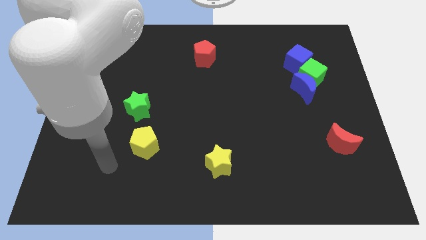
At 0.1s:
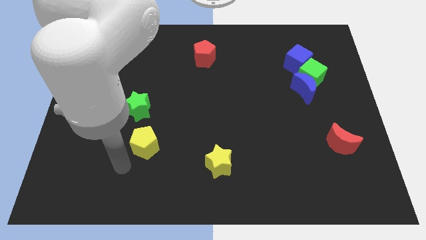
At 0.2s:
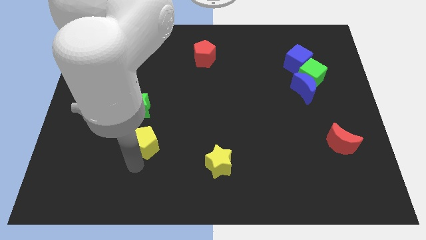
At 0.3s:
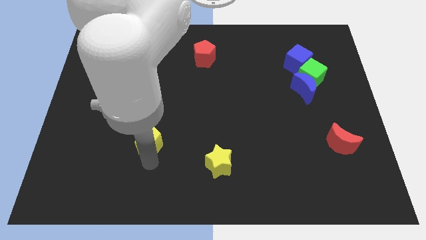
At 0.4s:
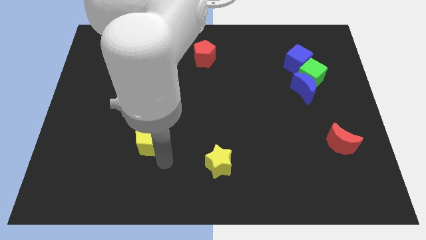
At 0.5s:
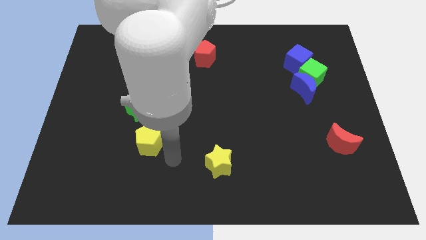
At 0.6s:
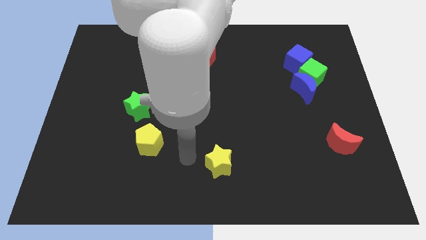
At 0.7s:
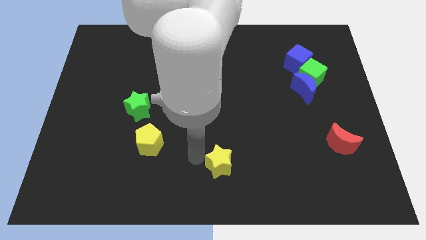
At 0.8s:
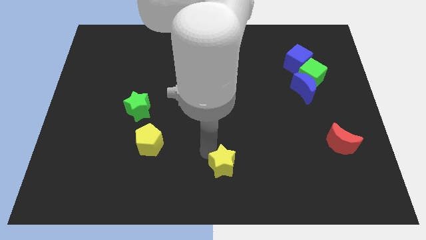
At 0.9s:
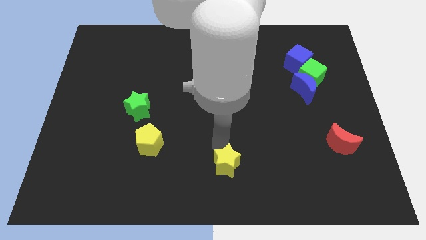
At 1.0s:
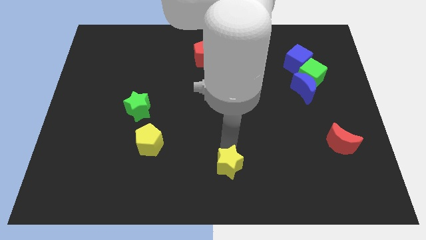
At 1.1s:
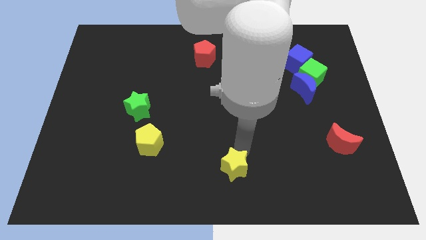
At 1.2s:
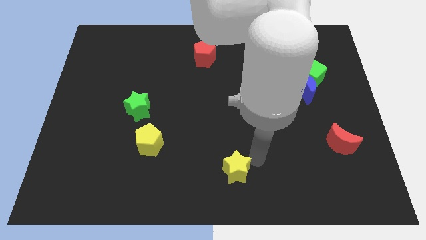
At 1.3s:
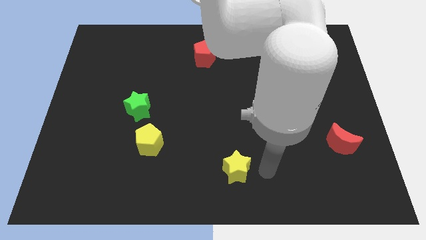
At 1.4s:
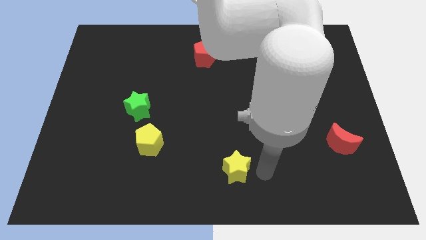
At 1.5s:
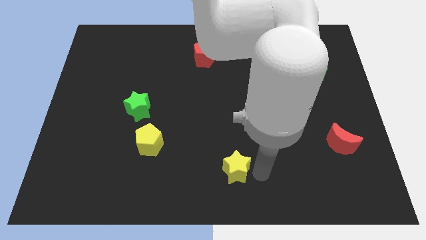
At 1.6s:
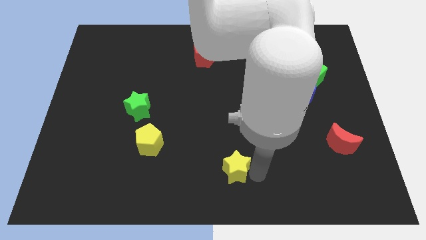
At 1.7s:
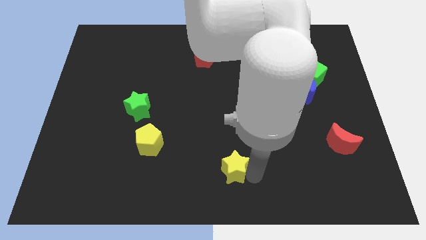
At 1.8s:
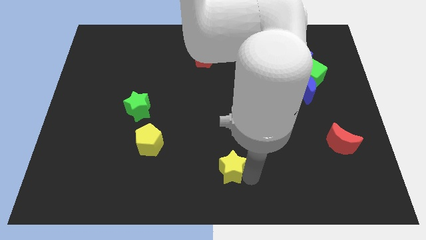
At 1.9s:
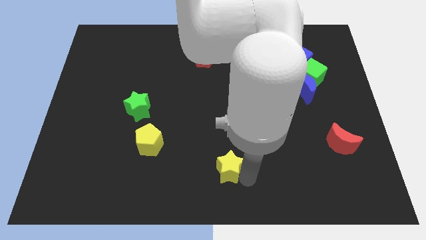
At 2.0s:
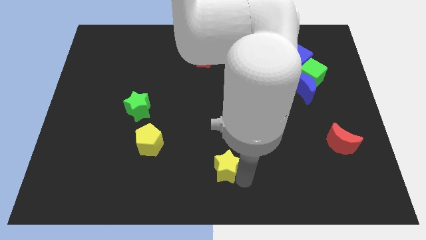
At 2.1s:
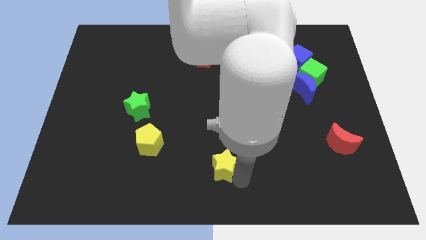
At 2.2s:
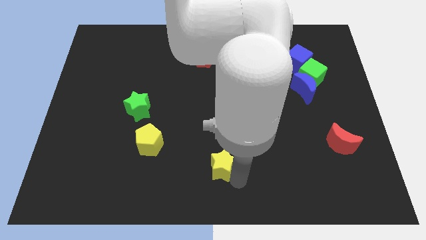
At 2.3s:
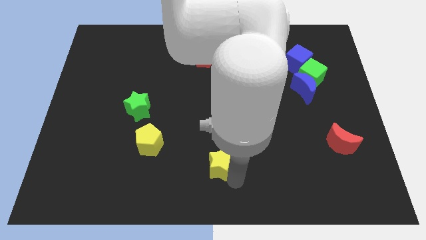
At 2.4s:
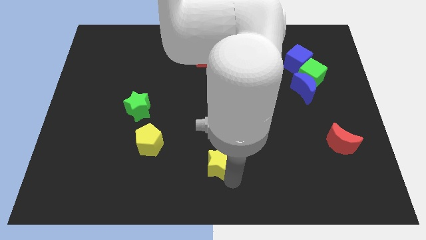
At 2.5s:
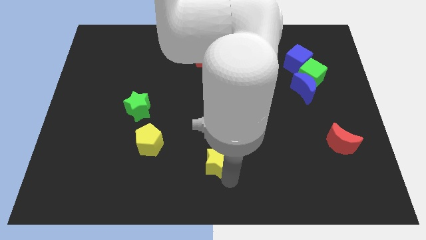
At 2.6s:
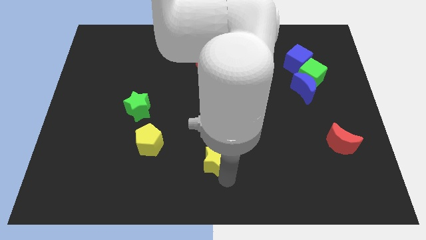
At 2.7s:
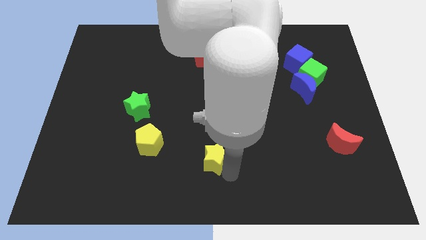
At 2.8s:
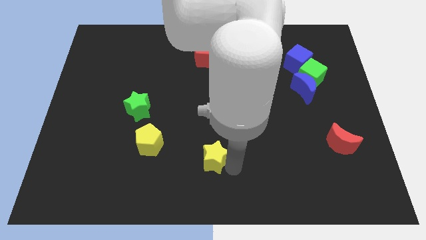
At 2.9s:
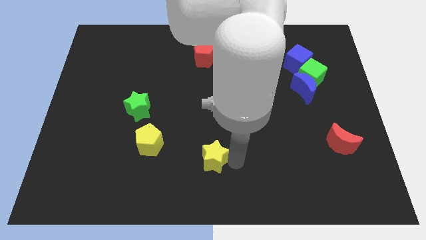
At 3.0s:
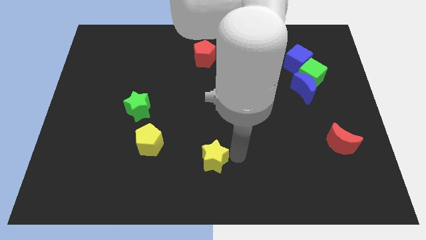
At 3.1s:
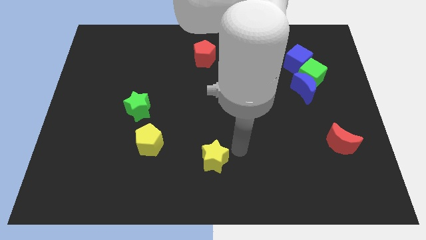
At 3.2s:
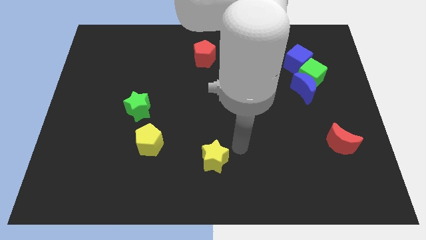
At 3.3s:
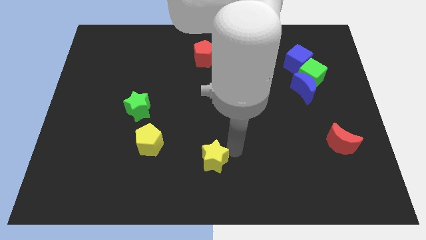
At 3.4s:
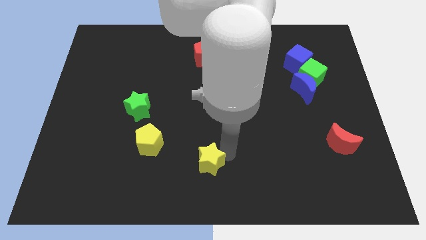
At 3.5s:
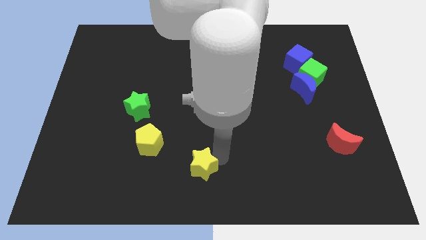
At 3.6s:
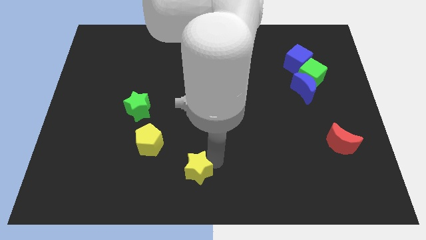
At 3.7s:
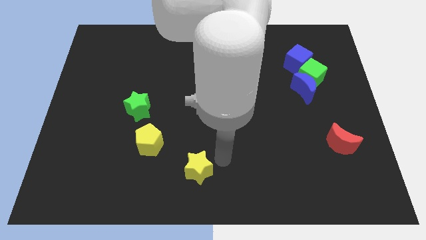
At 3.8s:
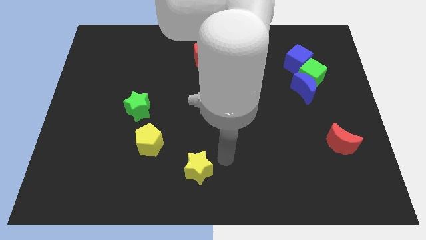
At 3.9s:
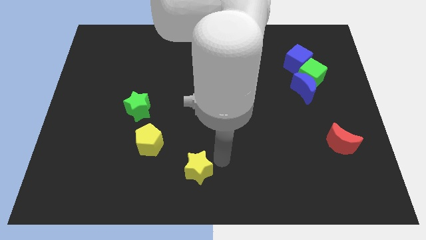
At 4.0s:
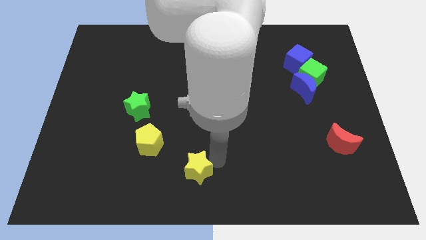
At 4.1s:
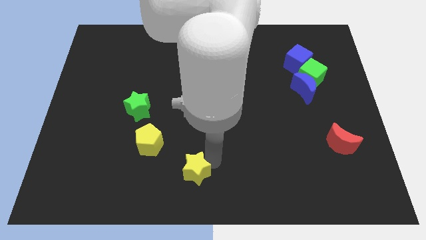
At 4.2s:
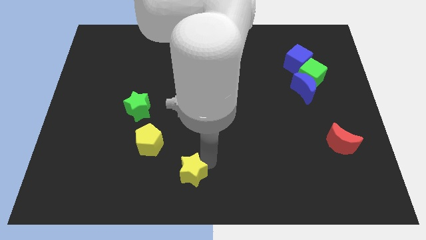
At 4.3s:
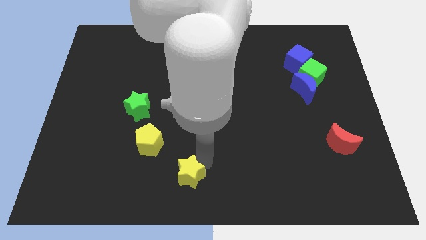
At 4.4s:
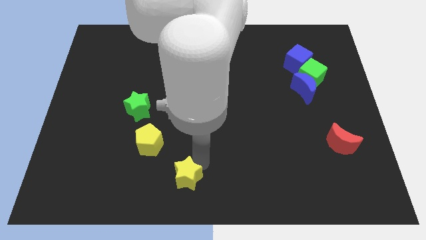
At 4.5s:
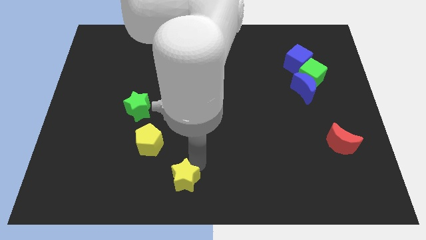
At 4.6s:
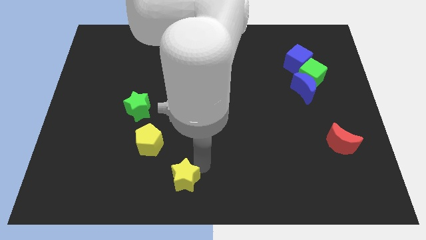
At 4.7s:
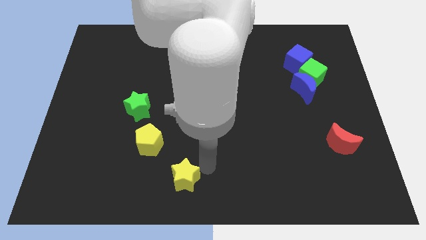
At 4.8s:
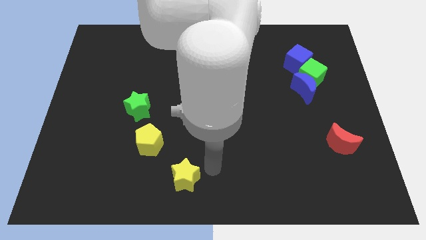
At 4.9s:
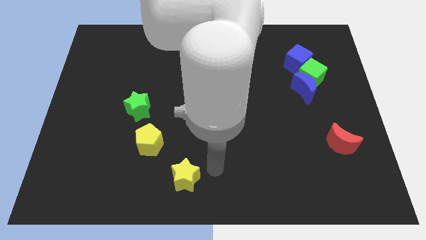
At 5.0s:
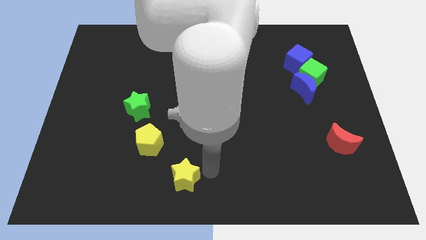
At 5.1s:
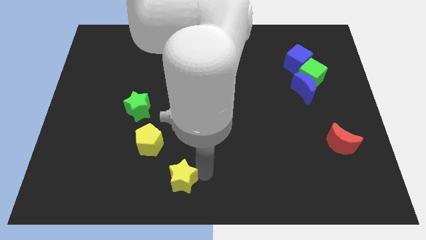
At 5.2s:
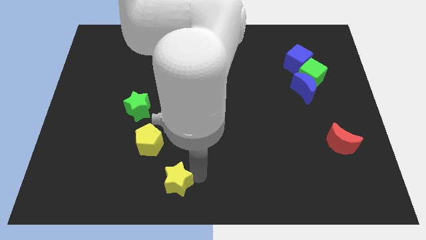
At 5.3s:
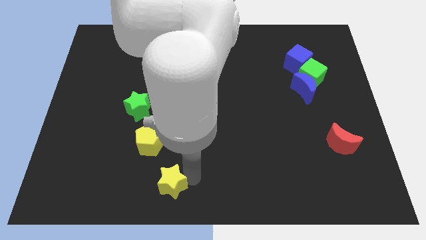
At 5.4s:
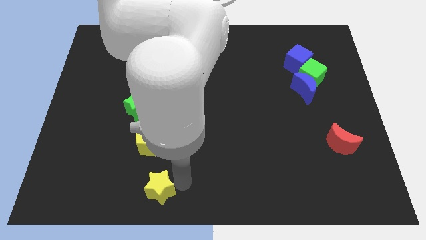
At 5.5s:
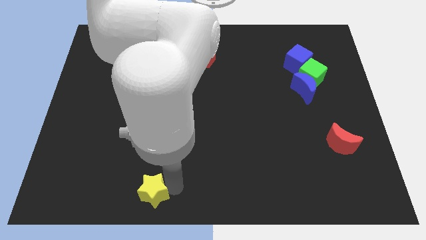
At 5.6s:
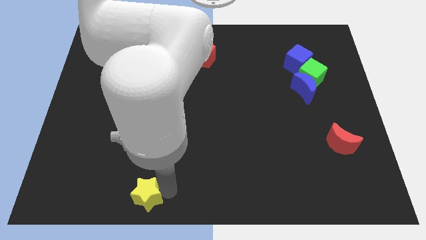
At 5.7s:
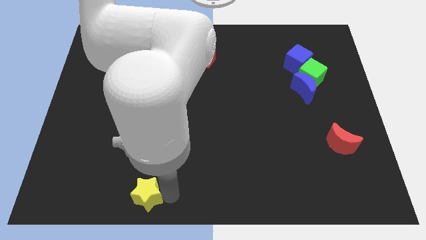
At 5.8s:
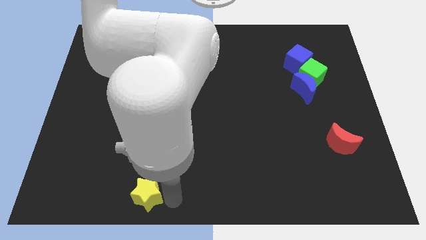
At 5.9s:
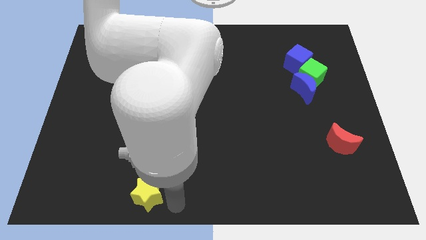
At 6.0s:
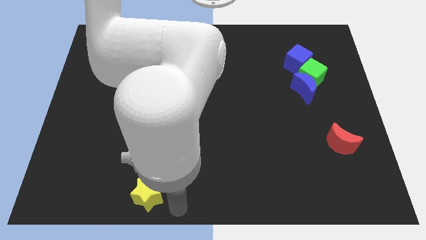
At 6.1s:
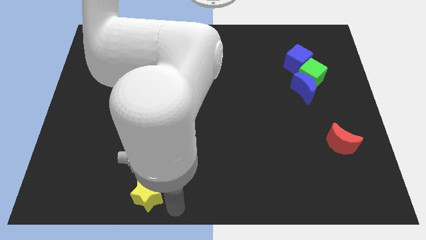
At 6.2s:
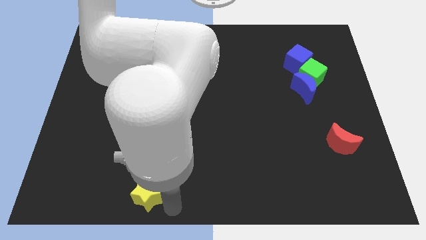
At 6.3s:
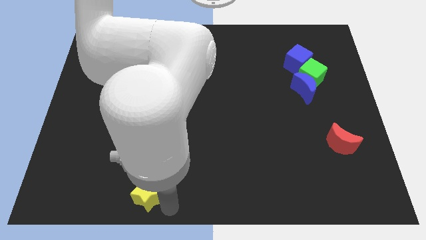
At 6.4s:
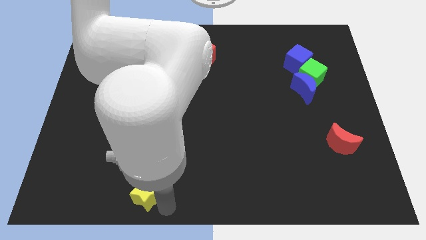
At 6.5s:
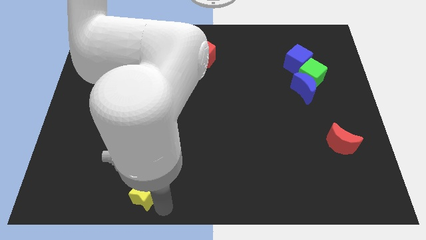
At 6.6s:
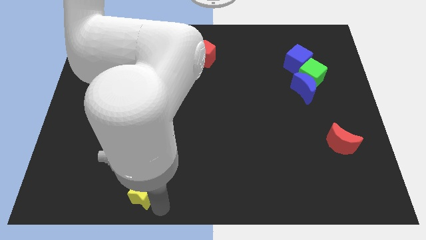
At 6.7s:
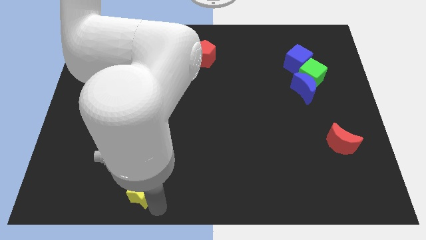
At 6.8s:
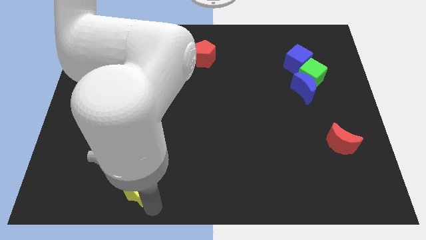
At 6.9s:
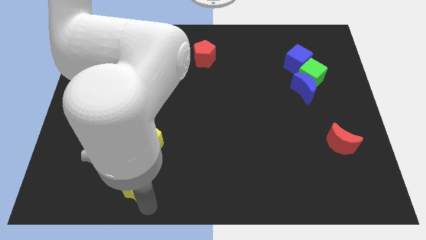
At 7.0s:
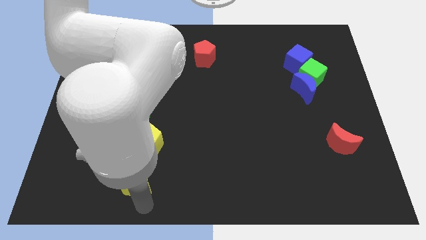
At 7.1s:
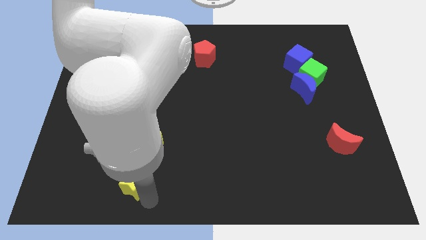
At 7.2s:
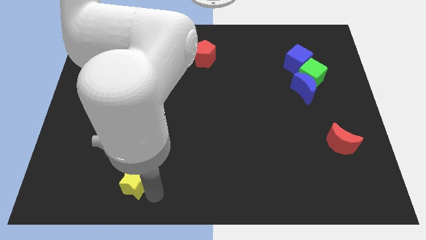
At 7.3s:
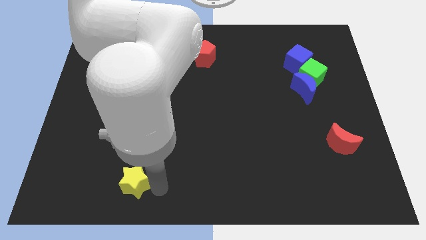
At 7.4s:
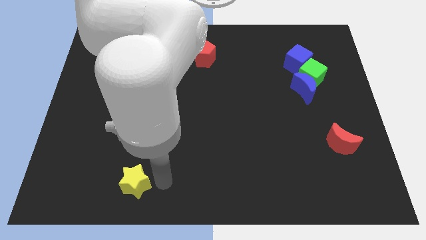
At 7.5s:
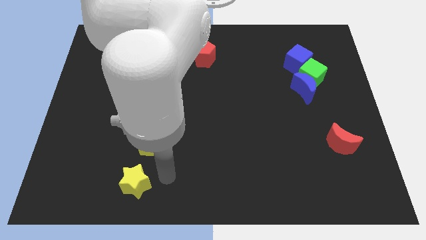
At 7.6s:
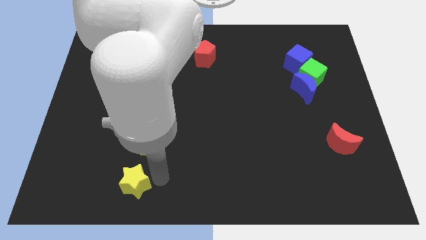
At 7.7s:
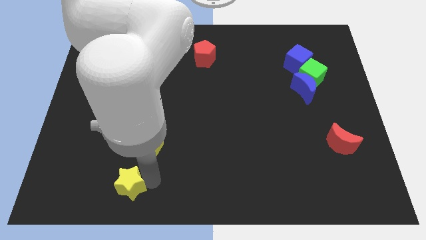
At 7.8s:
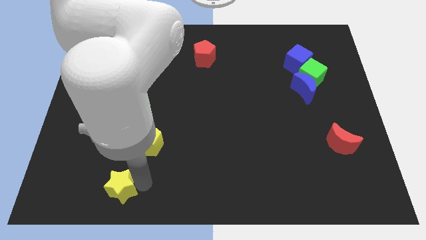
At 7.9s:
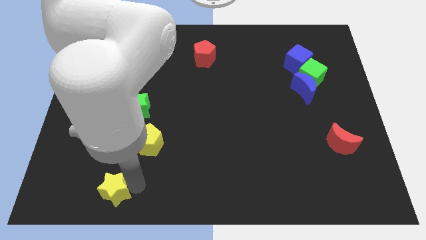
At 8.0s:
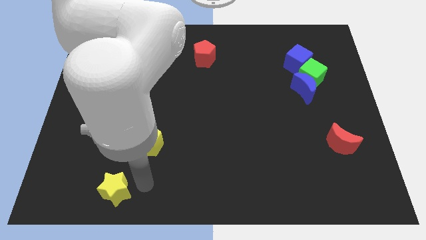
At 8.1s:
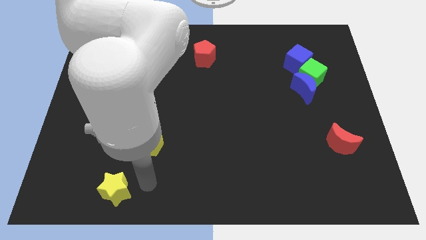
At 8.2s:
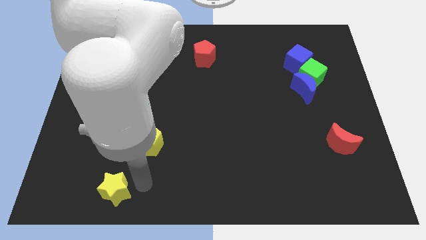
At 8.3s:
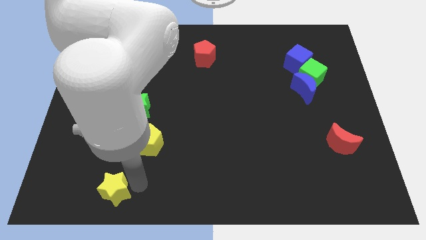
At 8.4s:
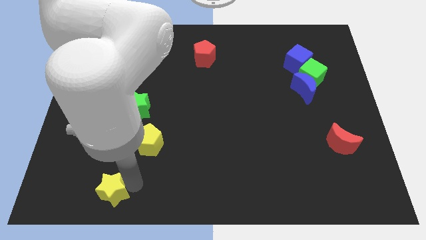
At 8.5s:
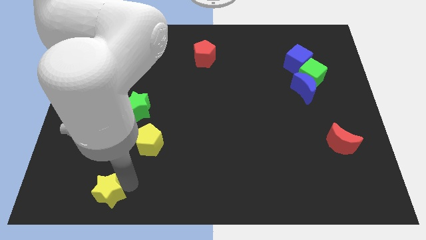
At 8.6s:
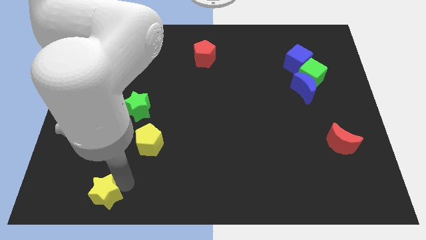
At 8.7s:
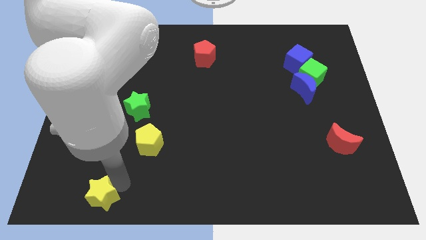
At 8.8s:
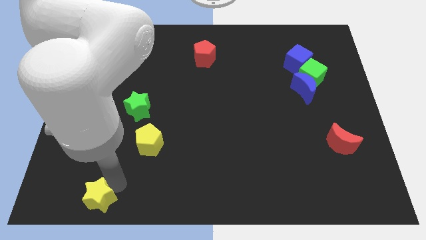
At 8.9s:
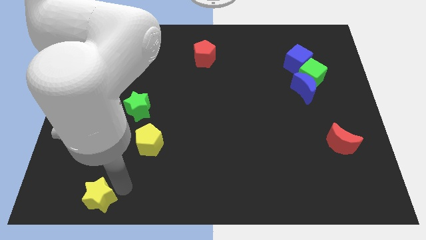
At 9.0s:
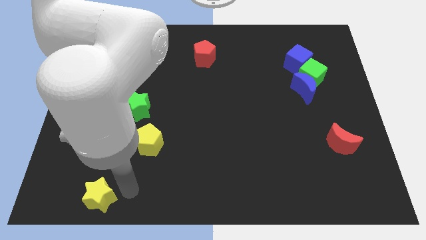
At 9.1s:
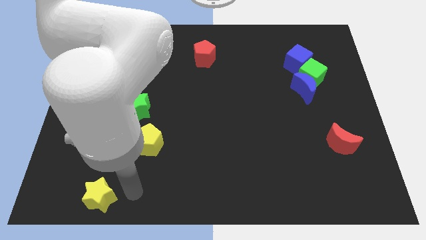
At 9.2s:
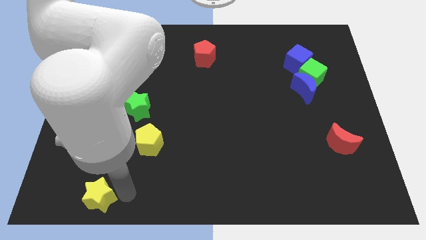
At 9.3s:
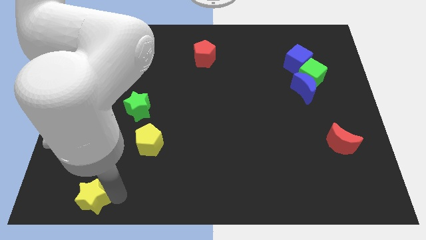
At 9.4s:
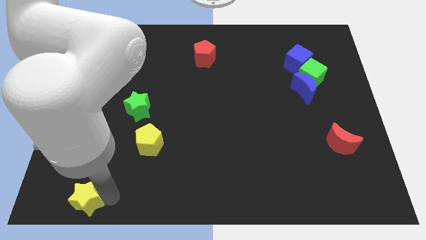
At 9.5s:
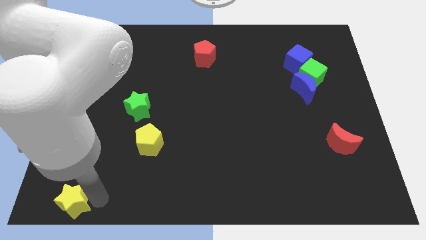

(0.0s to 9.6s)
put the yellow star to the bottom left
